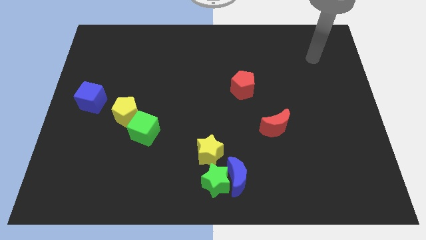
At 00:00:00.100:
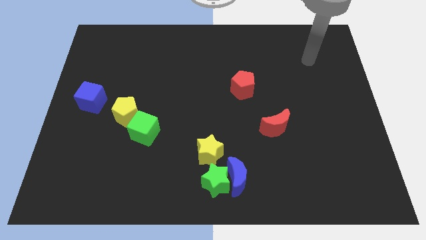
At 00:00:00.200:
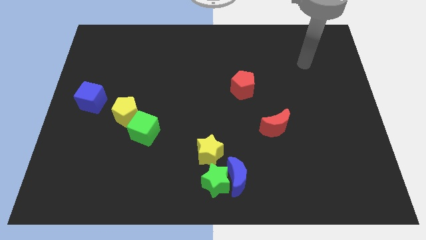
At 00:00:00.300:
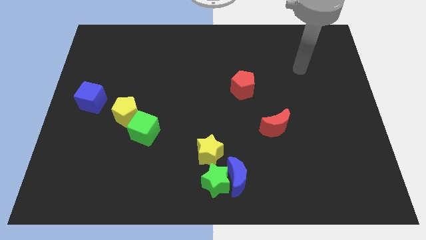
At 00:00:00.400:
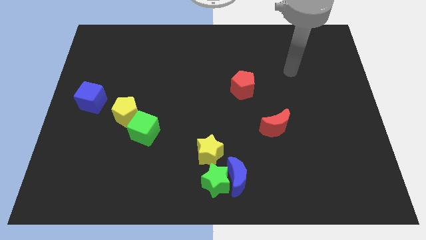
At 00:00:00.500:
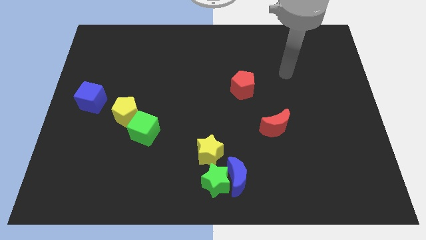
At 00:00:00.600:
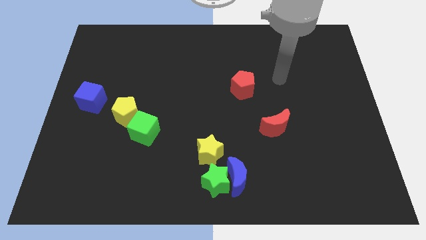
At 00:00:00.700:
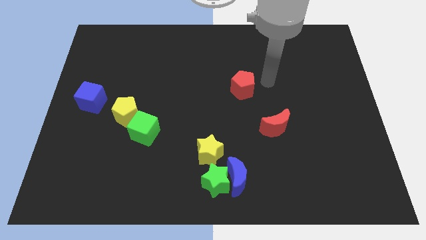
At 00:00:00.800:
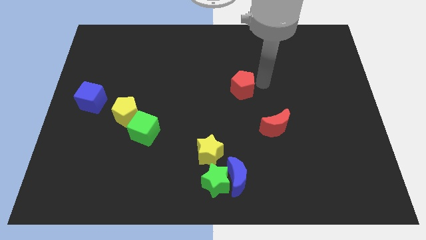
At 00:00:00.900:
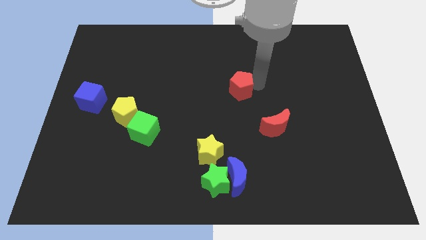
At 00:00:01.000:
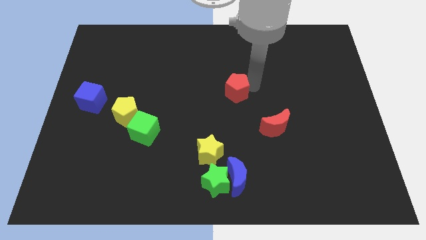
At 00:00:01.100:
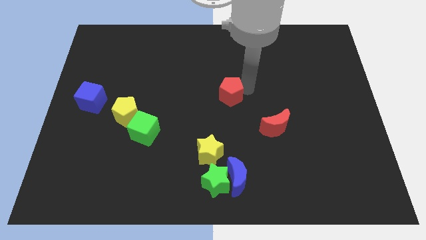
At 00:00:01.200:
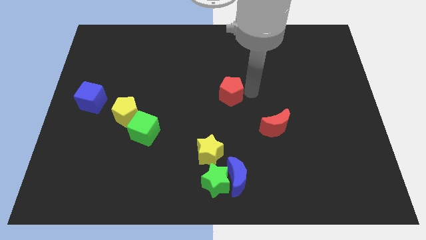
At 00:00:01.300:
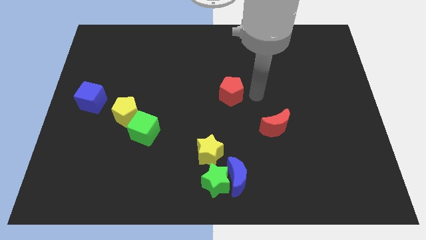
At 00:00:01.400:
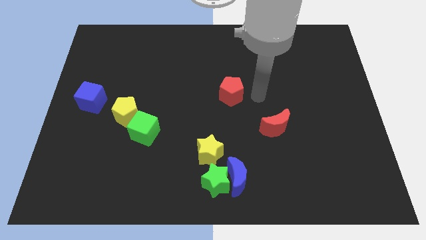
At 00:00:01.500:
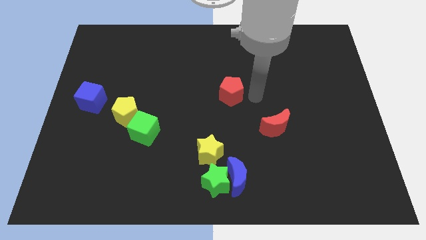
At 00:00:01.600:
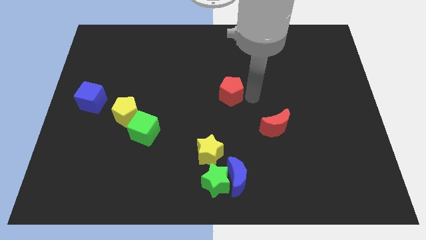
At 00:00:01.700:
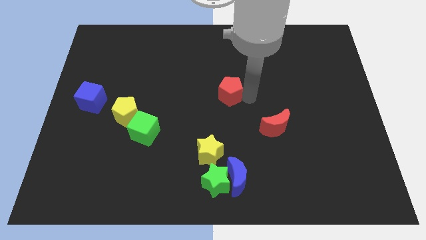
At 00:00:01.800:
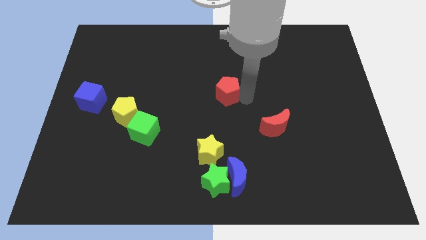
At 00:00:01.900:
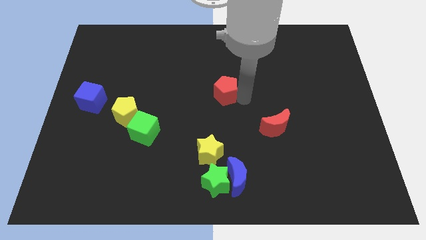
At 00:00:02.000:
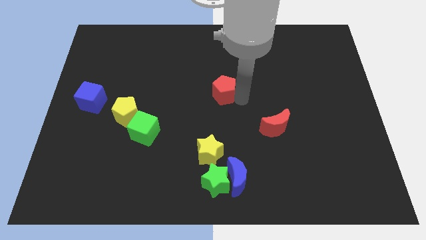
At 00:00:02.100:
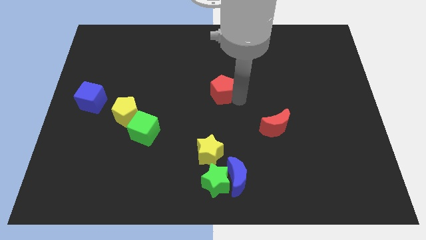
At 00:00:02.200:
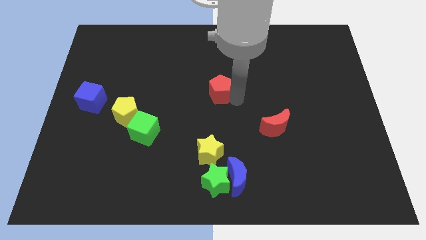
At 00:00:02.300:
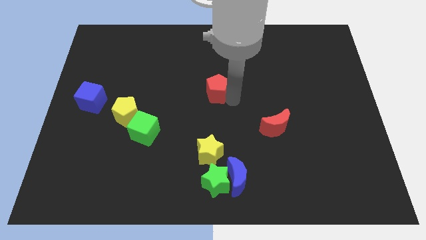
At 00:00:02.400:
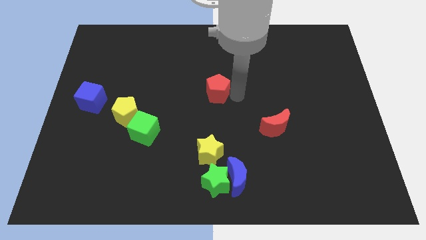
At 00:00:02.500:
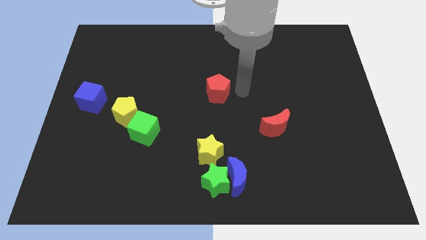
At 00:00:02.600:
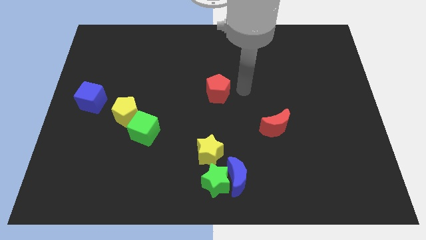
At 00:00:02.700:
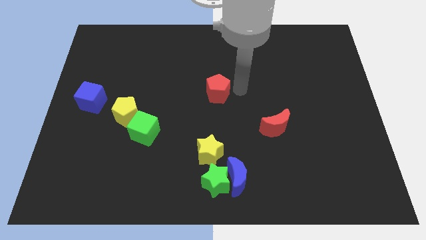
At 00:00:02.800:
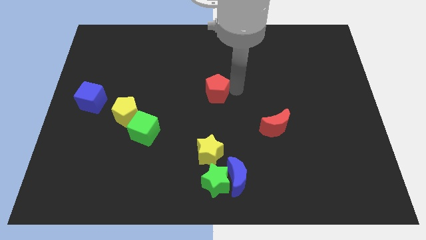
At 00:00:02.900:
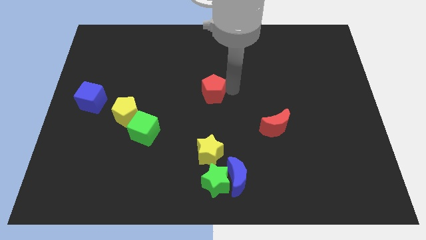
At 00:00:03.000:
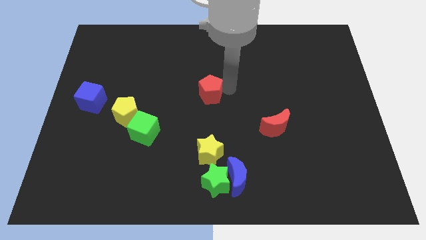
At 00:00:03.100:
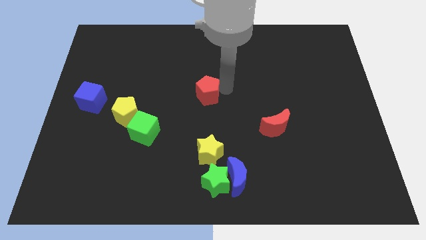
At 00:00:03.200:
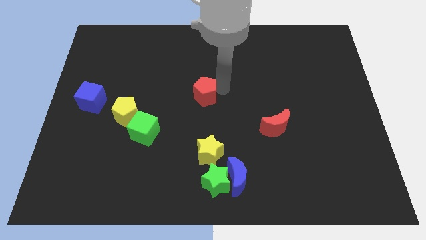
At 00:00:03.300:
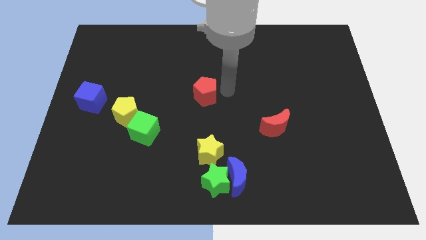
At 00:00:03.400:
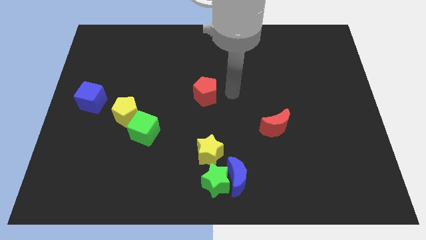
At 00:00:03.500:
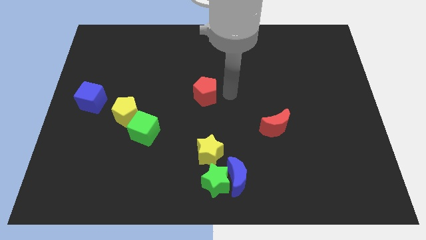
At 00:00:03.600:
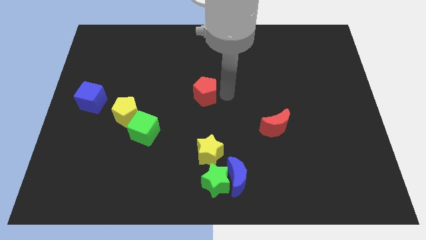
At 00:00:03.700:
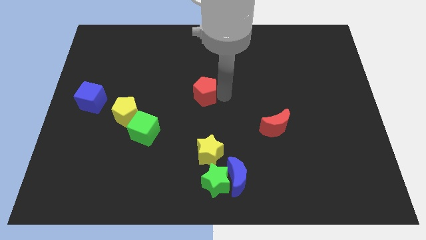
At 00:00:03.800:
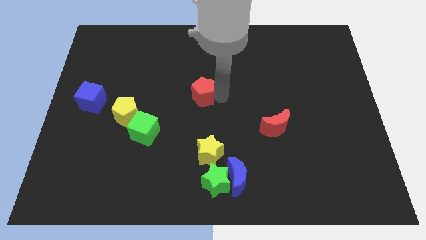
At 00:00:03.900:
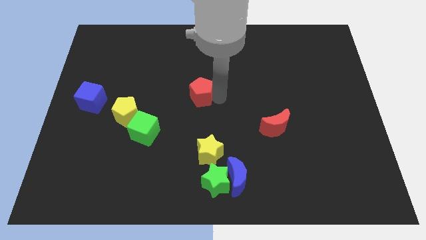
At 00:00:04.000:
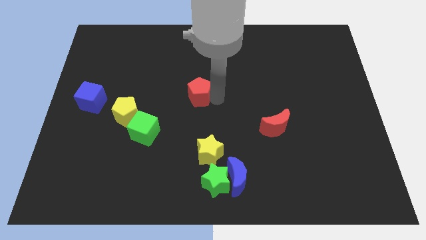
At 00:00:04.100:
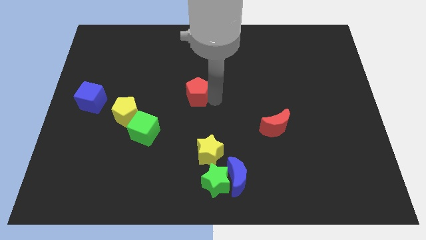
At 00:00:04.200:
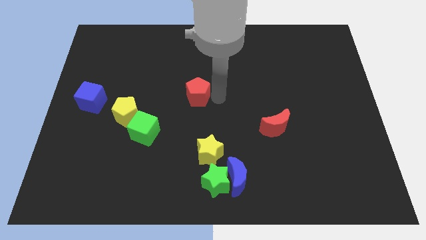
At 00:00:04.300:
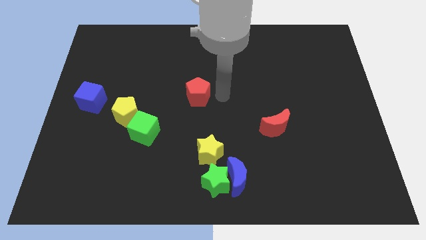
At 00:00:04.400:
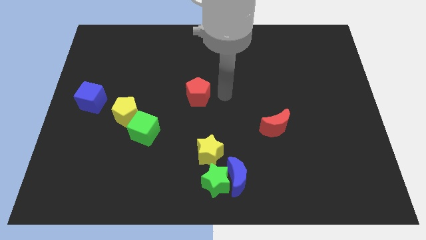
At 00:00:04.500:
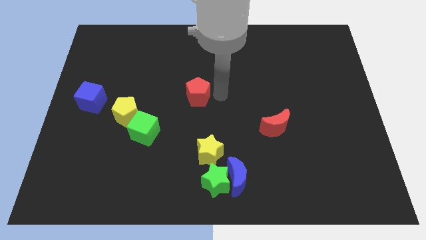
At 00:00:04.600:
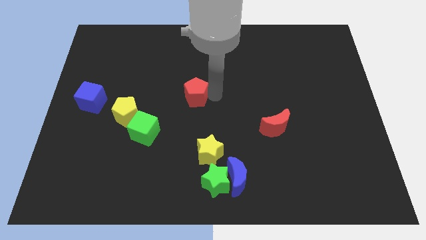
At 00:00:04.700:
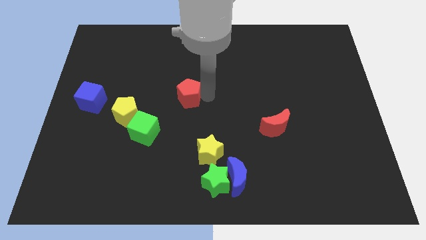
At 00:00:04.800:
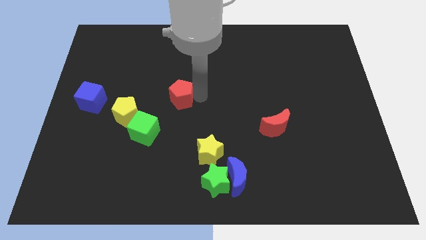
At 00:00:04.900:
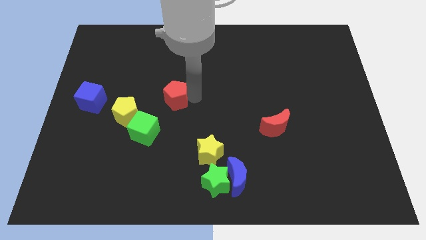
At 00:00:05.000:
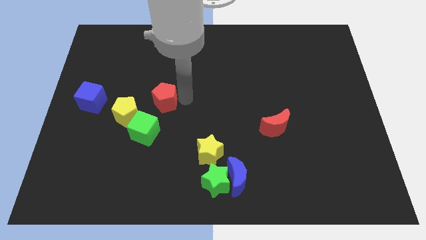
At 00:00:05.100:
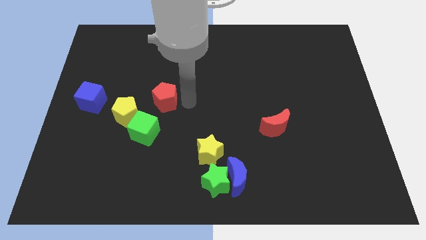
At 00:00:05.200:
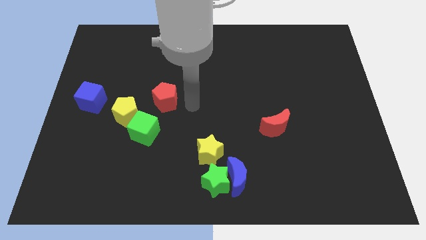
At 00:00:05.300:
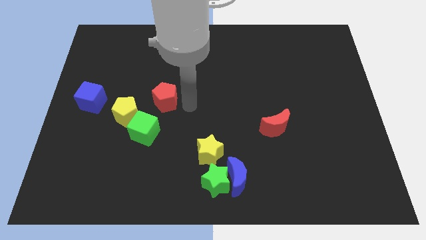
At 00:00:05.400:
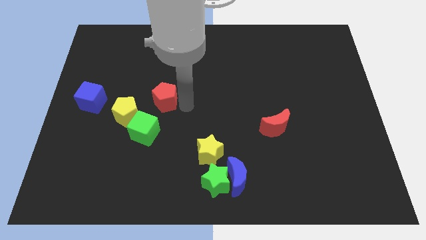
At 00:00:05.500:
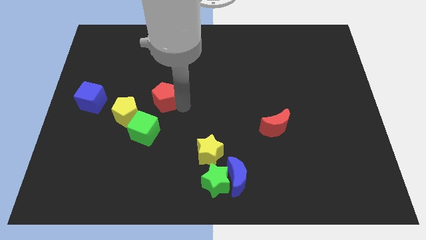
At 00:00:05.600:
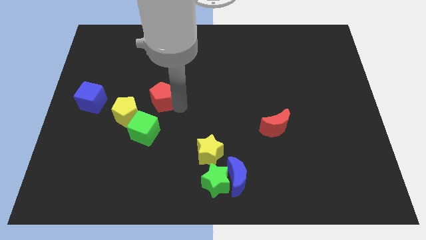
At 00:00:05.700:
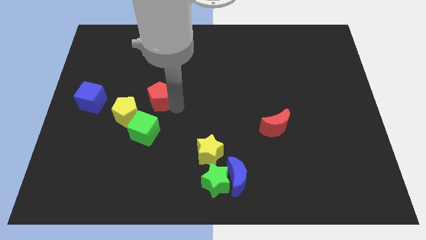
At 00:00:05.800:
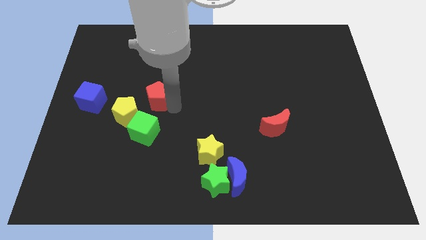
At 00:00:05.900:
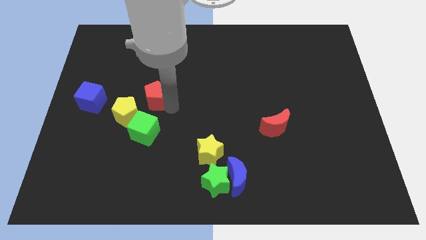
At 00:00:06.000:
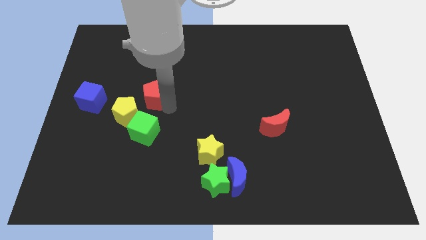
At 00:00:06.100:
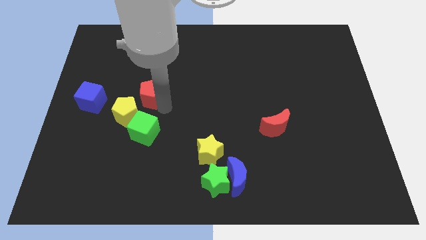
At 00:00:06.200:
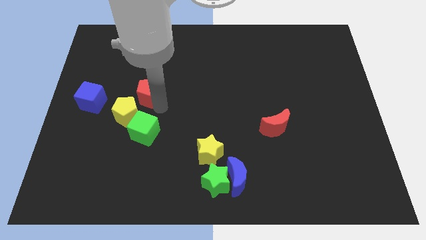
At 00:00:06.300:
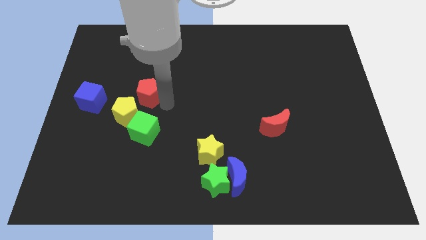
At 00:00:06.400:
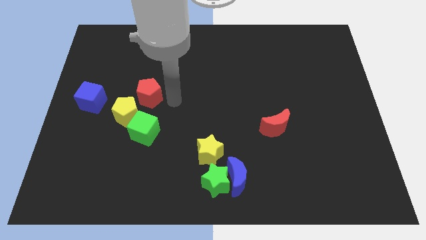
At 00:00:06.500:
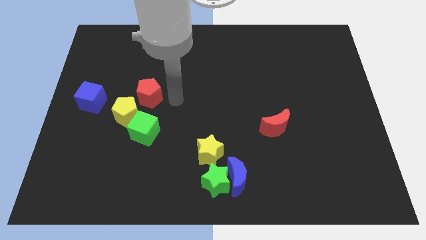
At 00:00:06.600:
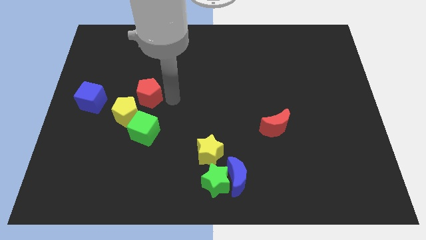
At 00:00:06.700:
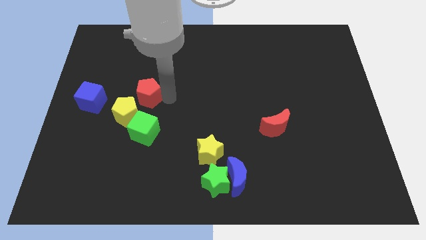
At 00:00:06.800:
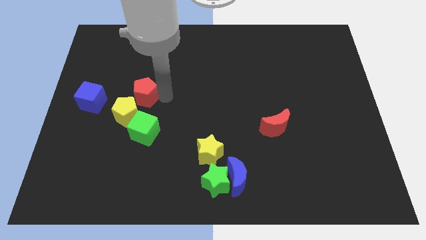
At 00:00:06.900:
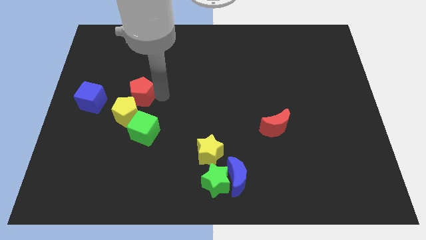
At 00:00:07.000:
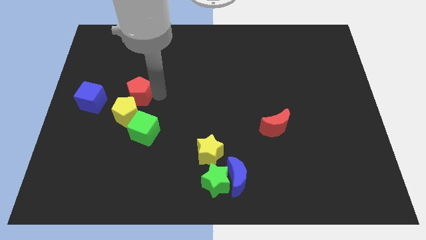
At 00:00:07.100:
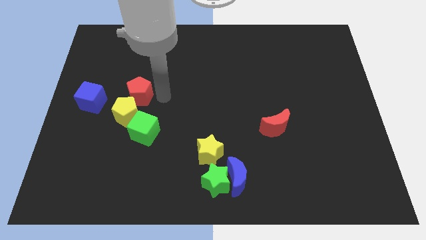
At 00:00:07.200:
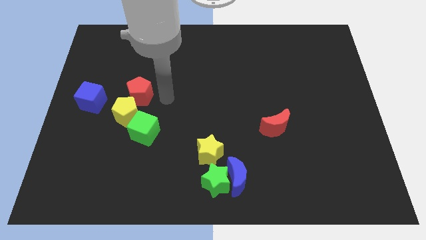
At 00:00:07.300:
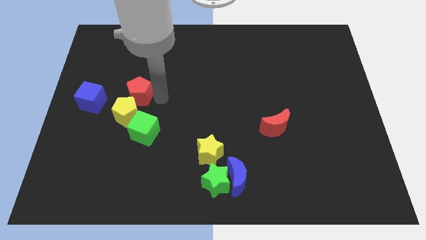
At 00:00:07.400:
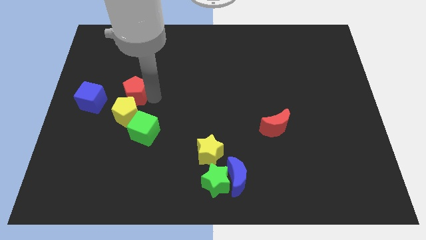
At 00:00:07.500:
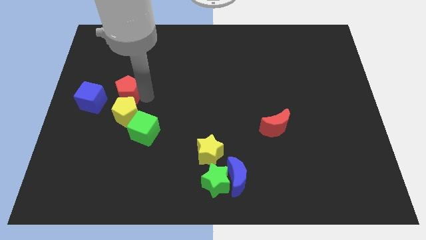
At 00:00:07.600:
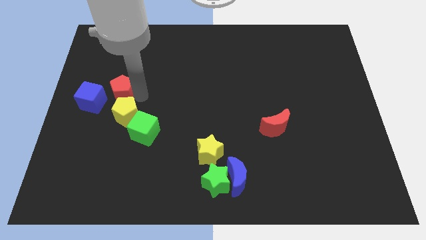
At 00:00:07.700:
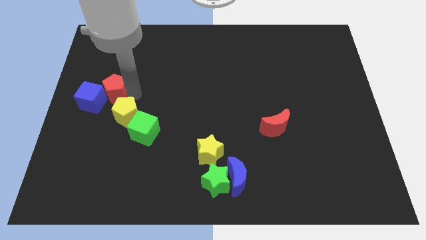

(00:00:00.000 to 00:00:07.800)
move the red pentagon close to the blue cube
